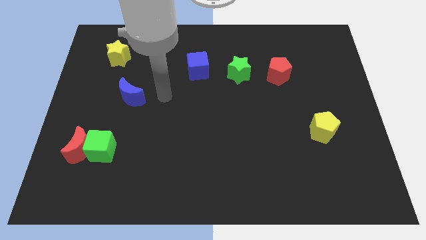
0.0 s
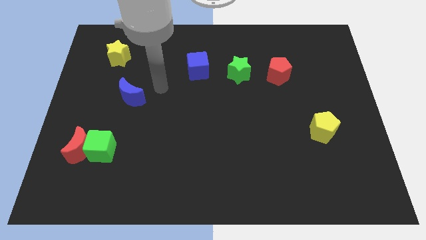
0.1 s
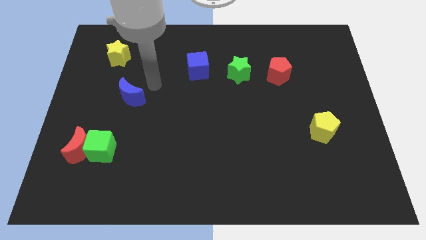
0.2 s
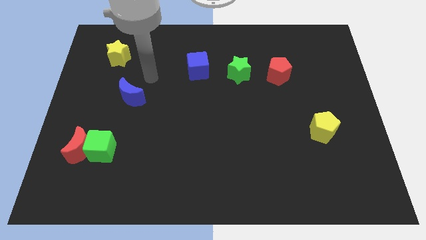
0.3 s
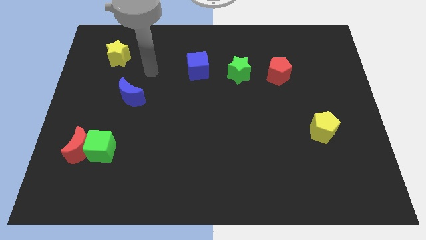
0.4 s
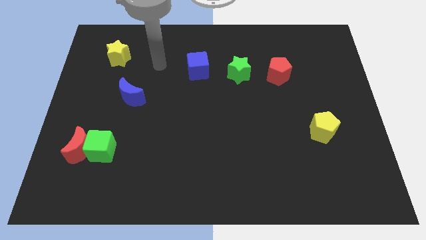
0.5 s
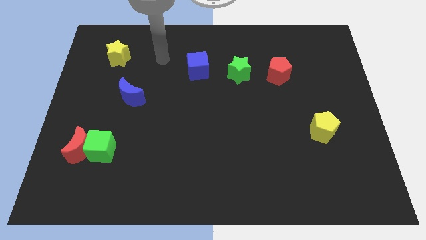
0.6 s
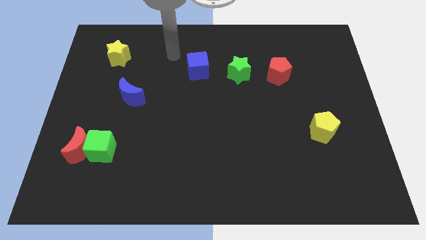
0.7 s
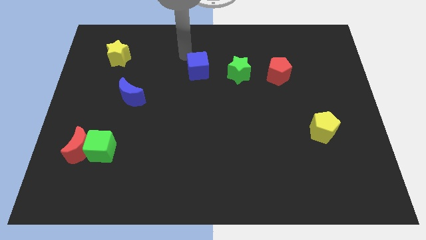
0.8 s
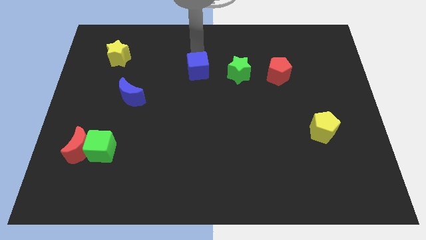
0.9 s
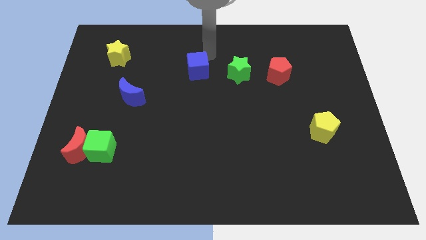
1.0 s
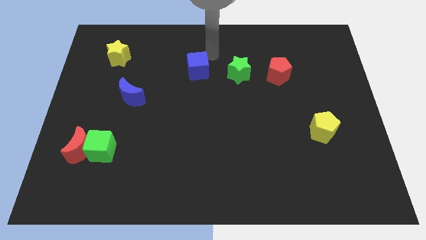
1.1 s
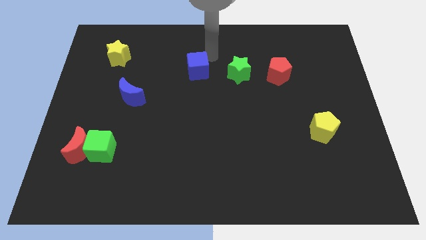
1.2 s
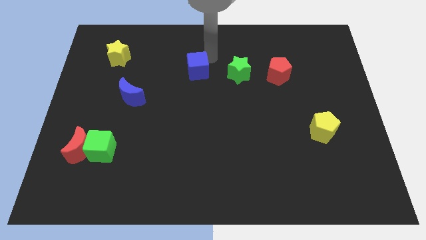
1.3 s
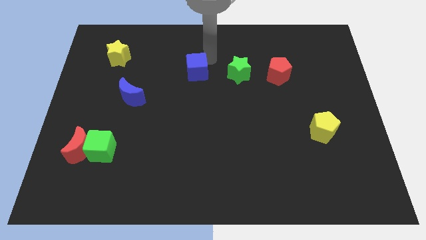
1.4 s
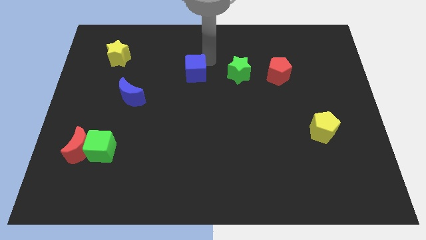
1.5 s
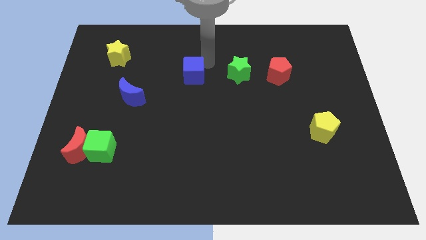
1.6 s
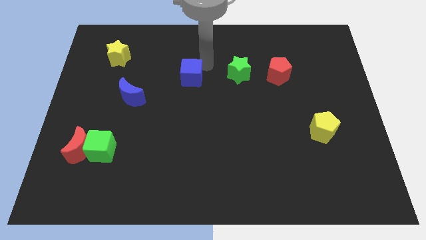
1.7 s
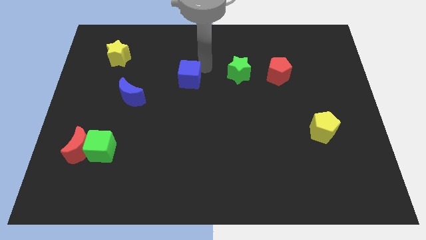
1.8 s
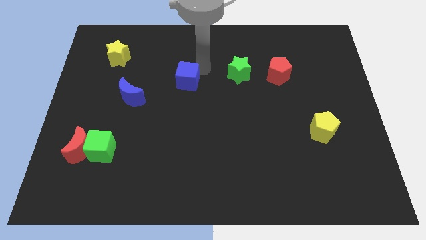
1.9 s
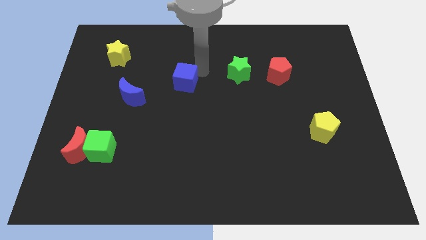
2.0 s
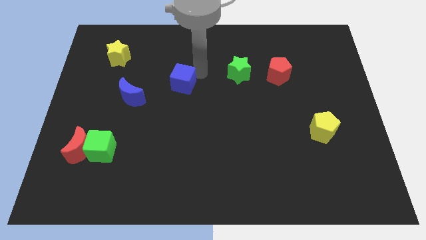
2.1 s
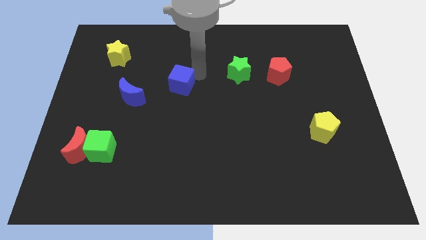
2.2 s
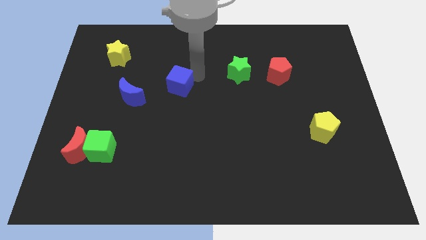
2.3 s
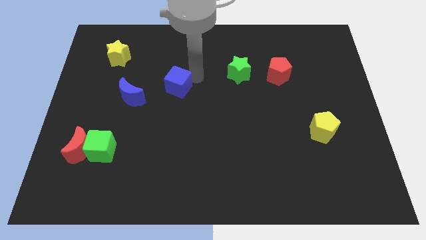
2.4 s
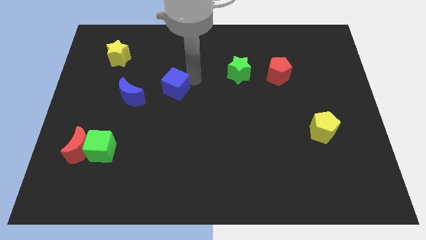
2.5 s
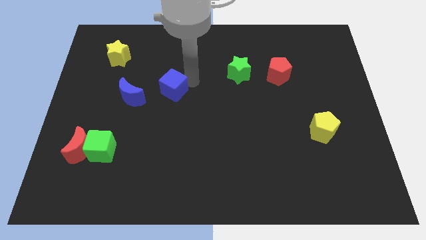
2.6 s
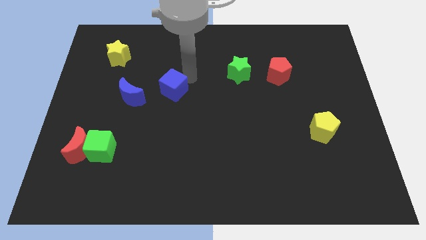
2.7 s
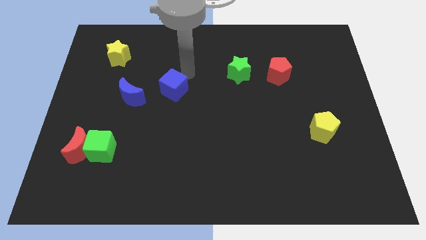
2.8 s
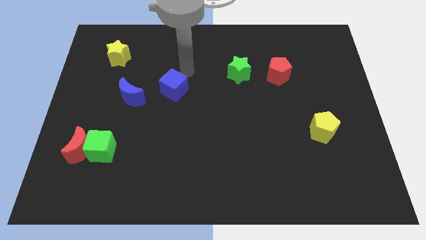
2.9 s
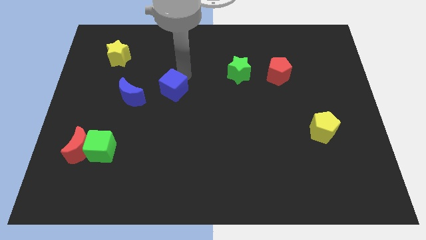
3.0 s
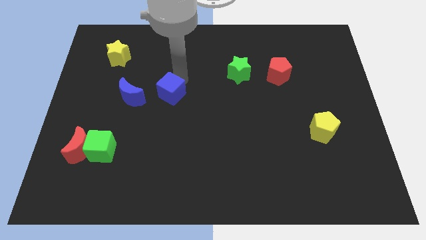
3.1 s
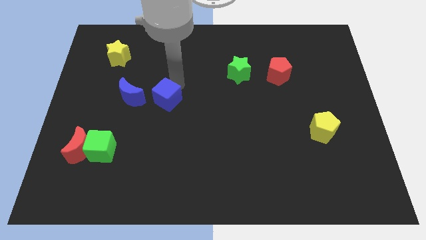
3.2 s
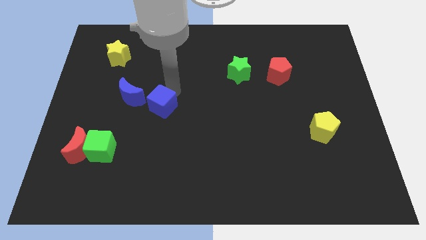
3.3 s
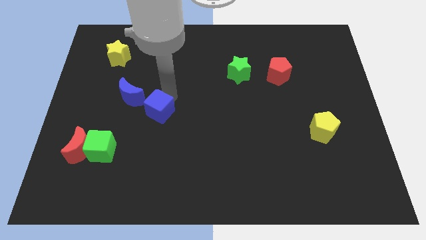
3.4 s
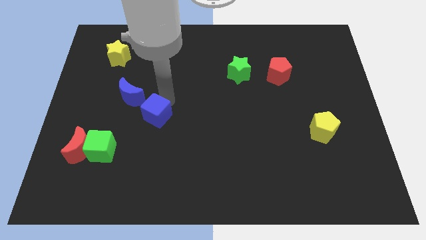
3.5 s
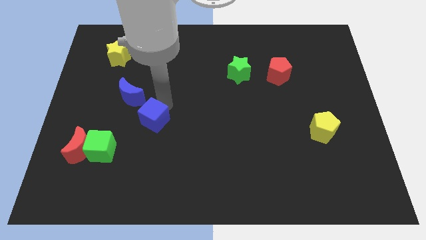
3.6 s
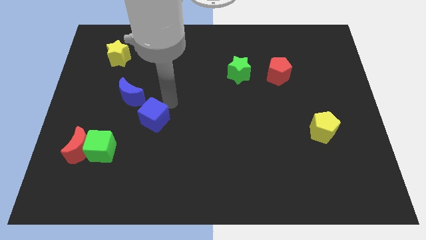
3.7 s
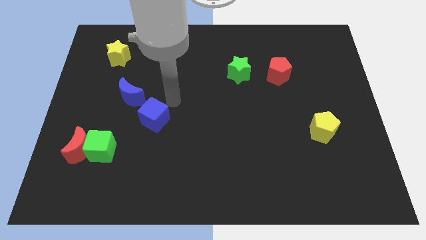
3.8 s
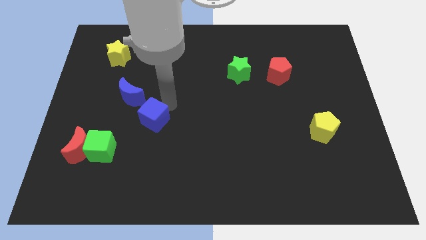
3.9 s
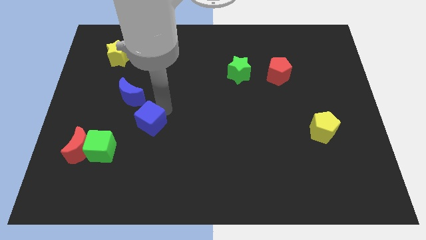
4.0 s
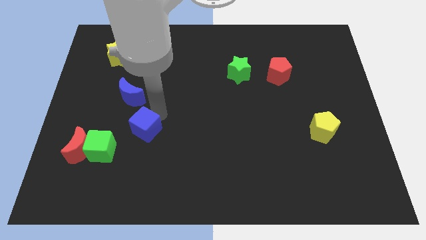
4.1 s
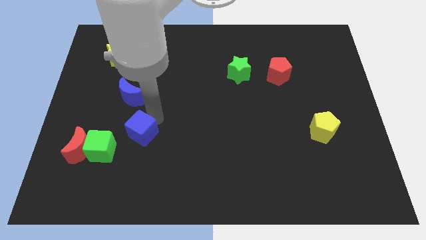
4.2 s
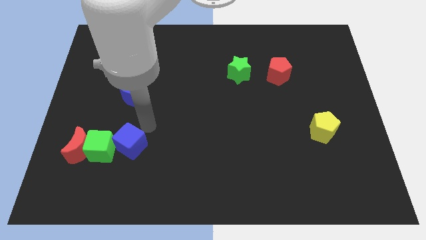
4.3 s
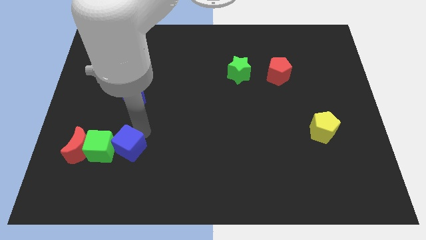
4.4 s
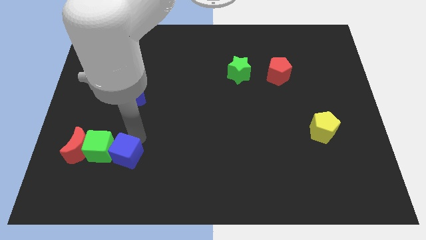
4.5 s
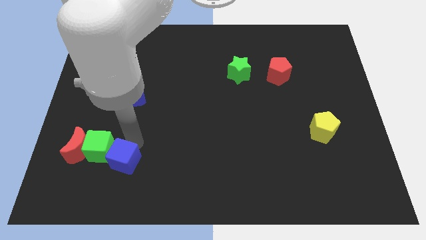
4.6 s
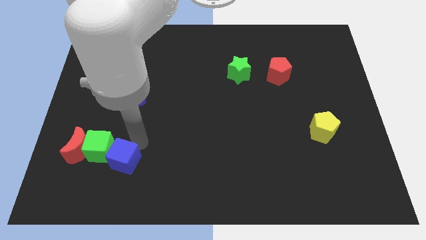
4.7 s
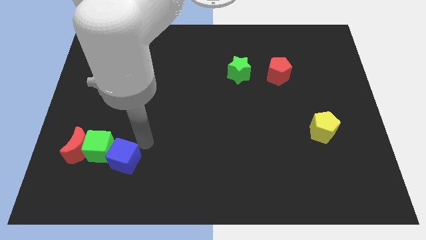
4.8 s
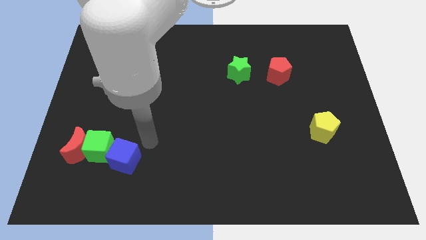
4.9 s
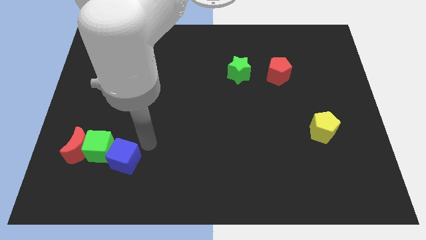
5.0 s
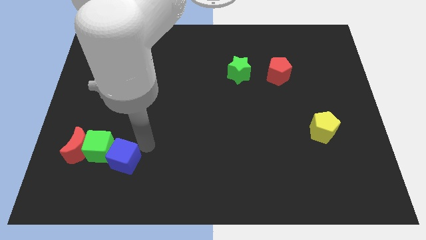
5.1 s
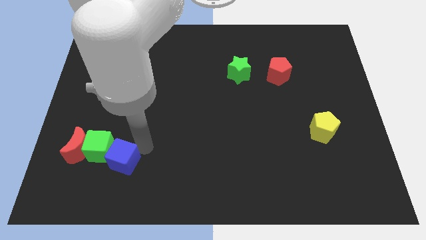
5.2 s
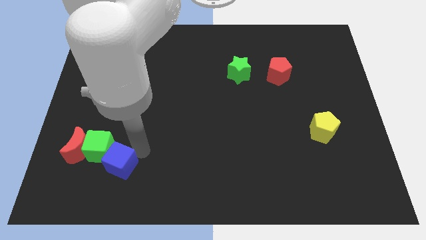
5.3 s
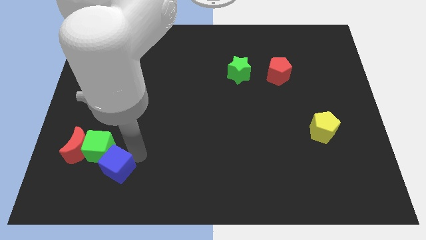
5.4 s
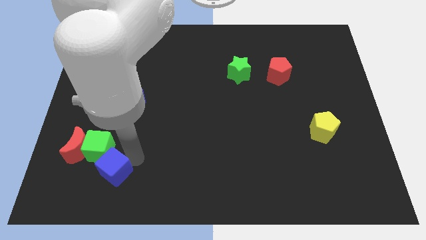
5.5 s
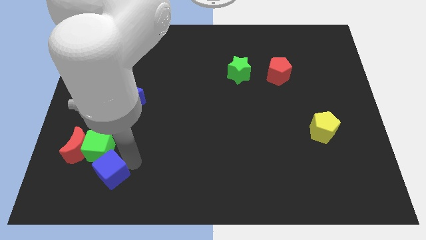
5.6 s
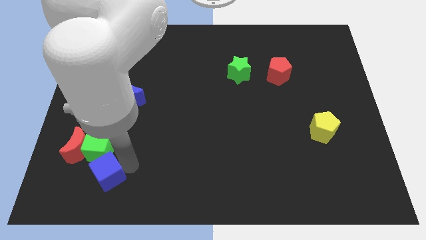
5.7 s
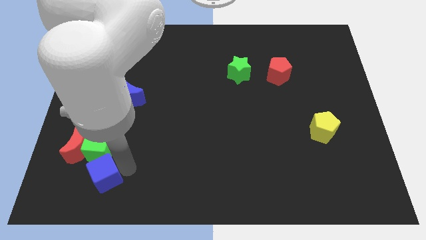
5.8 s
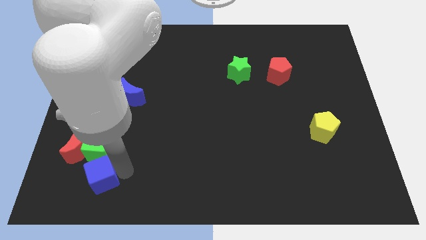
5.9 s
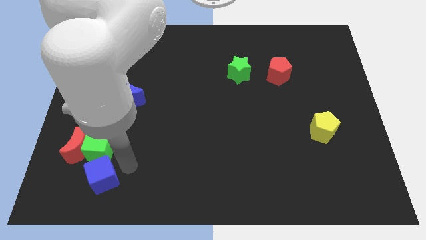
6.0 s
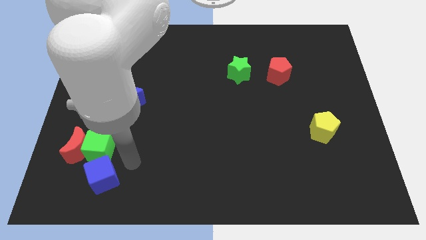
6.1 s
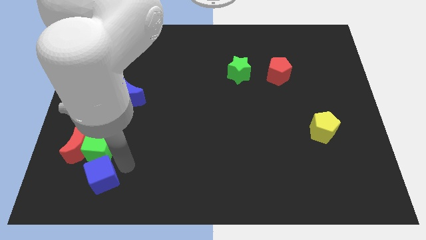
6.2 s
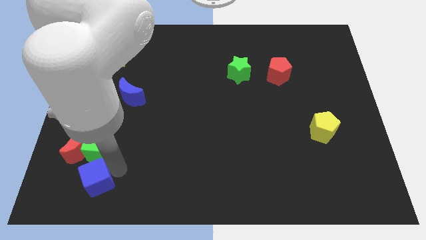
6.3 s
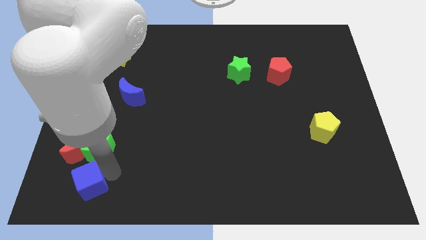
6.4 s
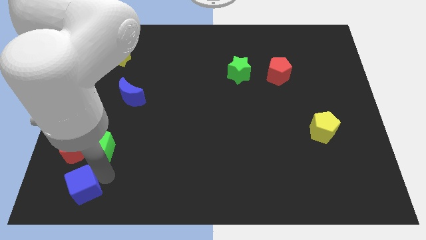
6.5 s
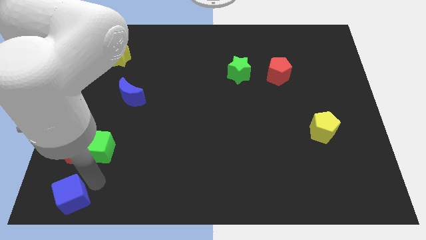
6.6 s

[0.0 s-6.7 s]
slide the blue cube to the bottom left
